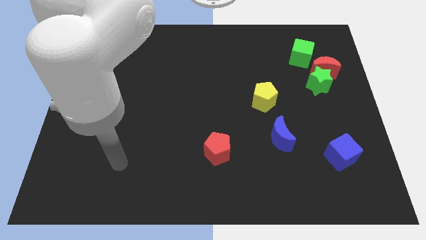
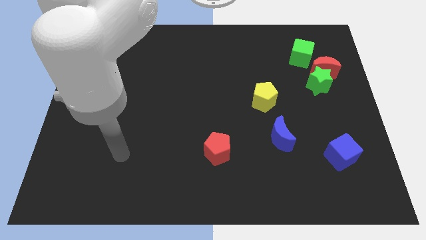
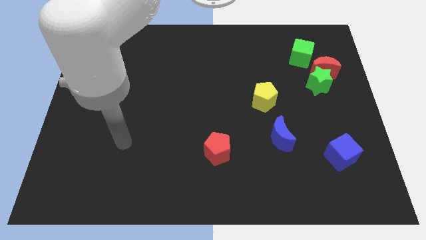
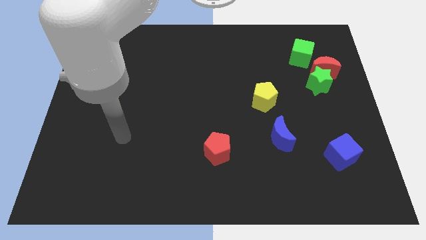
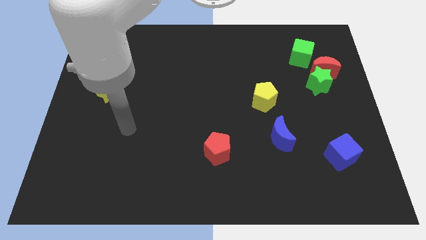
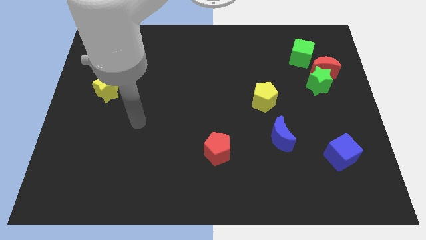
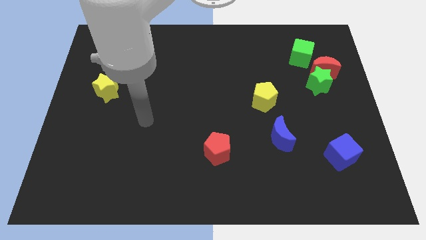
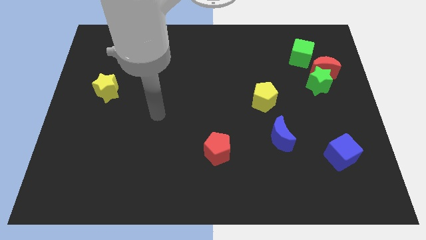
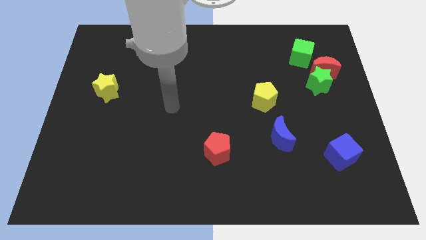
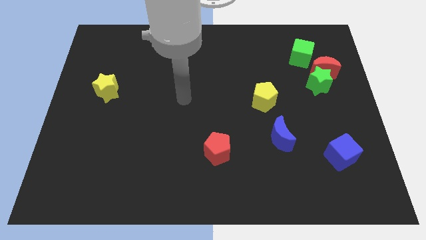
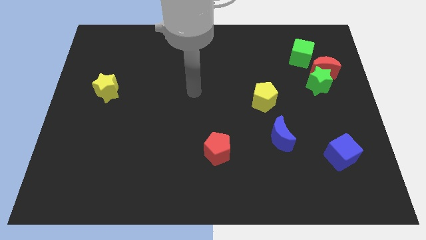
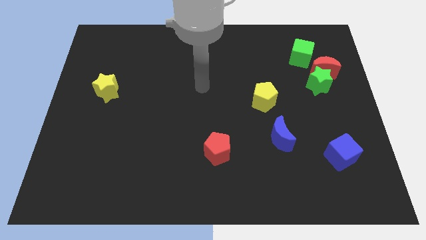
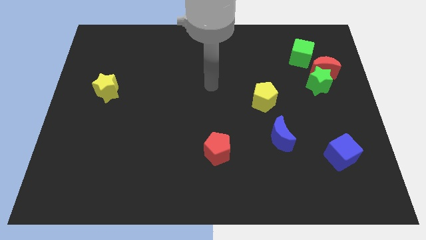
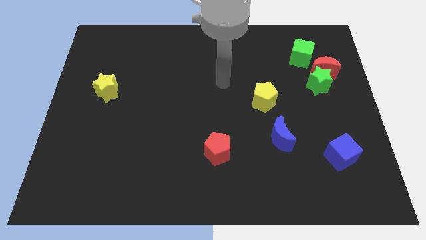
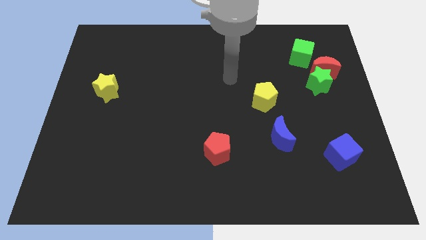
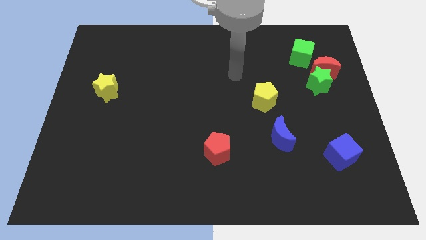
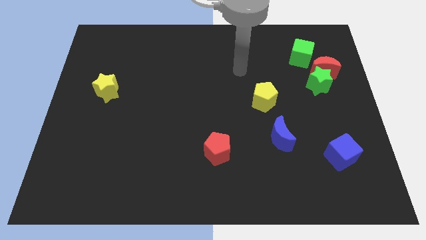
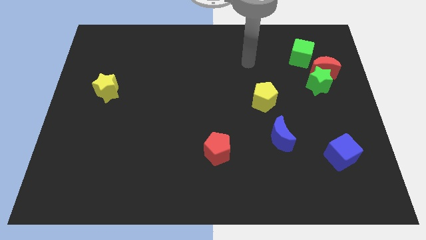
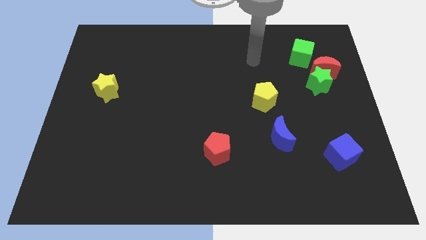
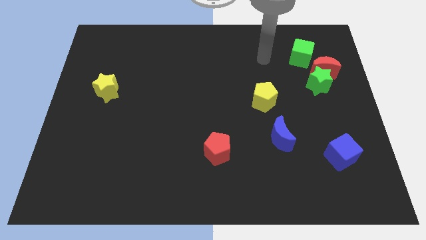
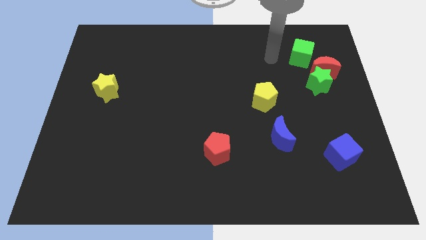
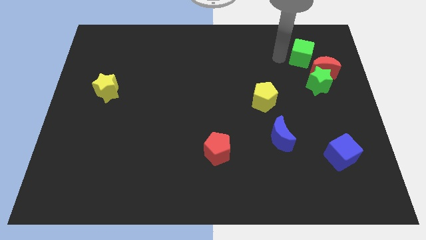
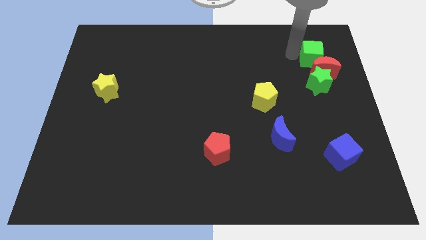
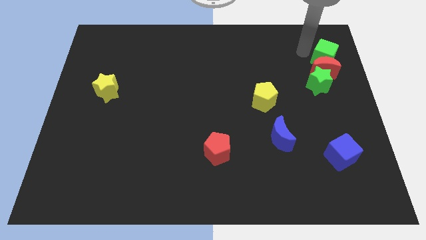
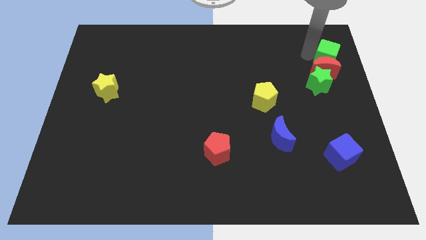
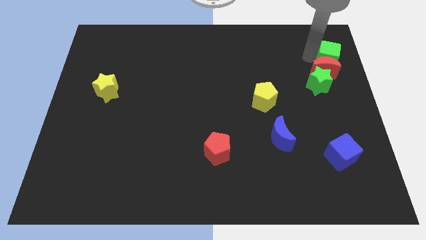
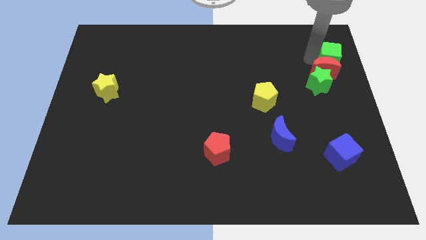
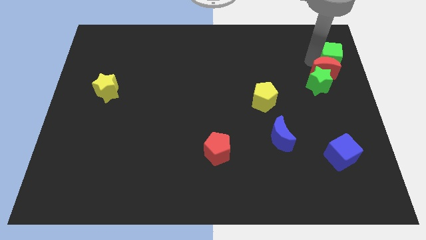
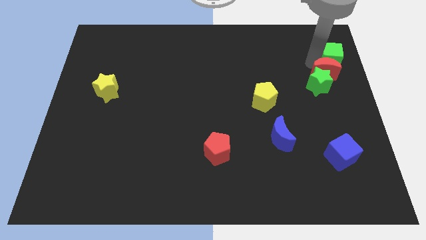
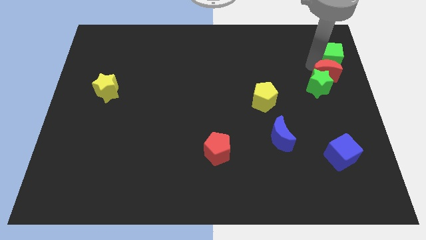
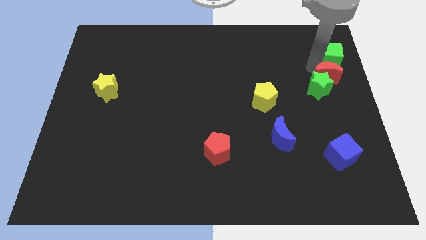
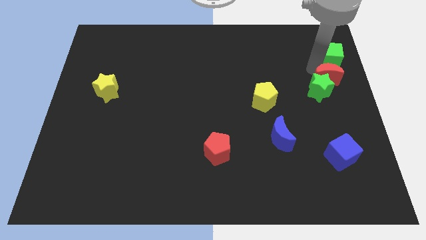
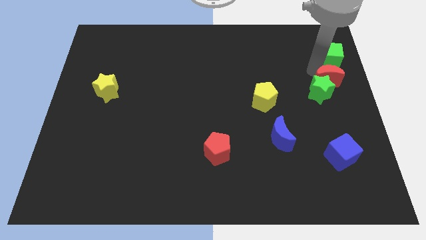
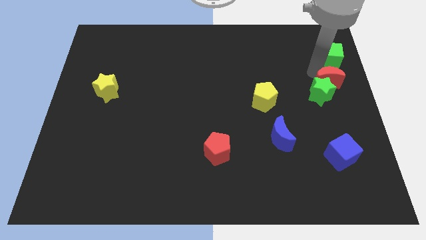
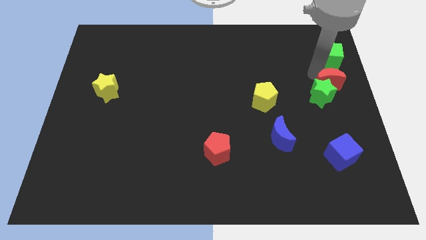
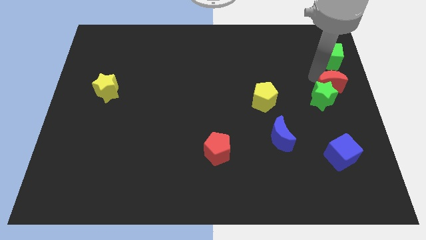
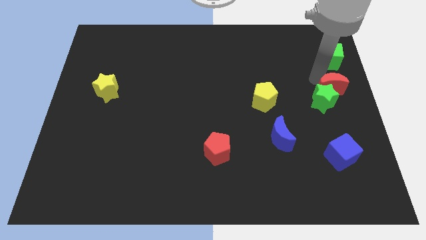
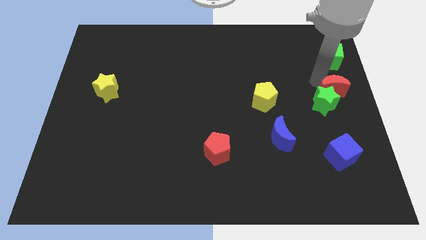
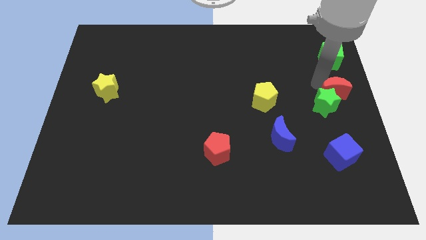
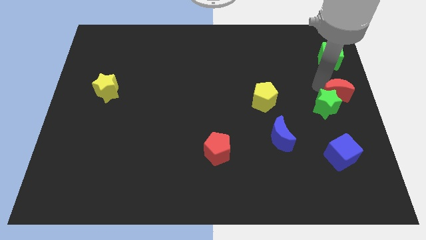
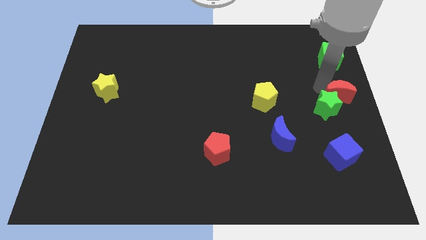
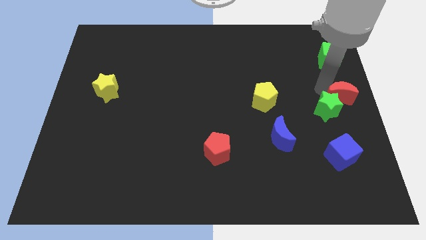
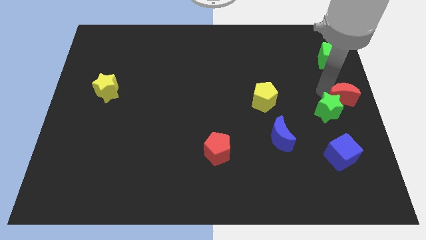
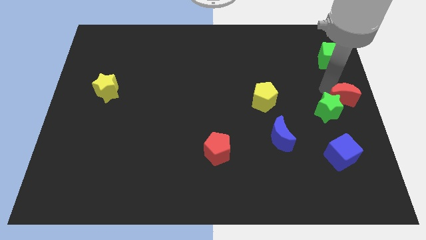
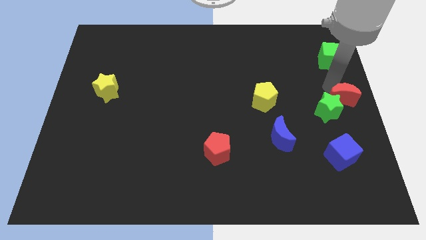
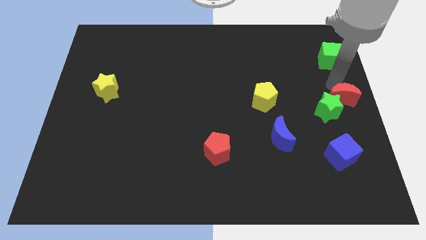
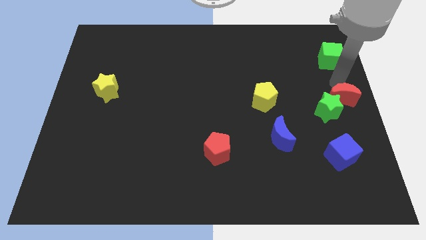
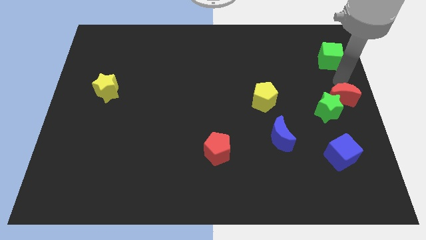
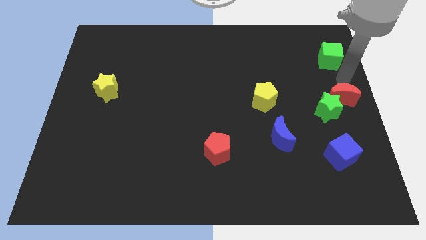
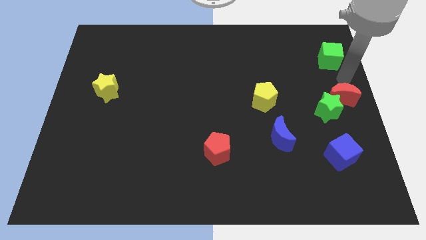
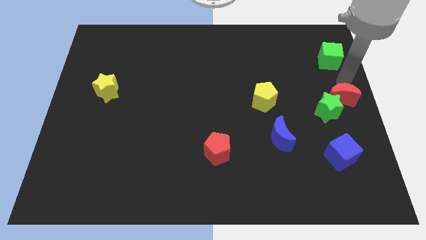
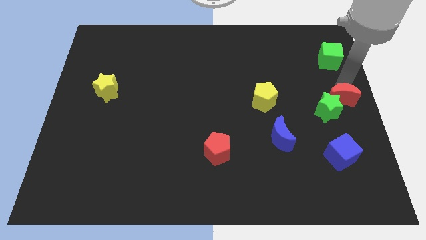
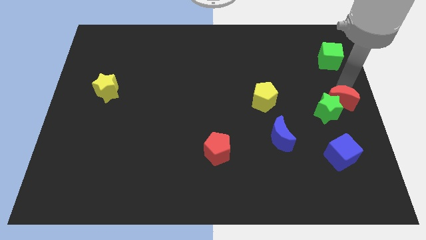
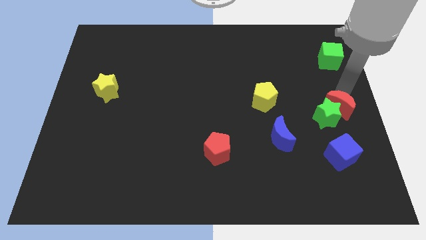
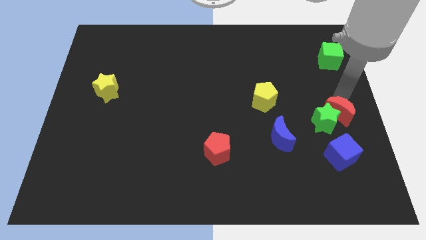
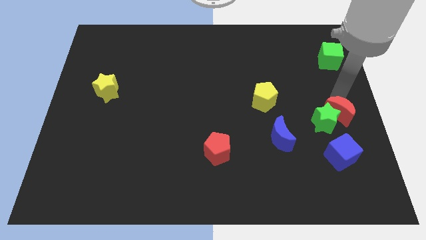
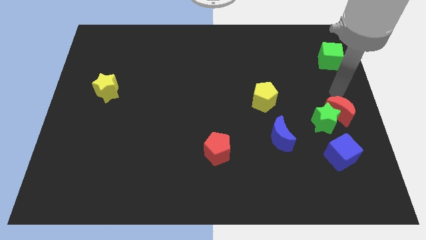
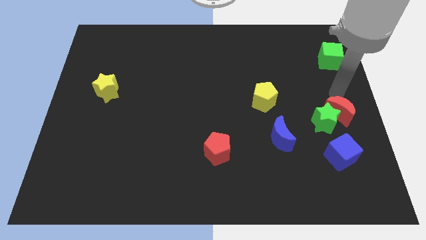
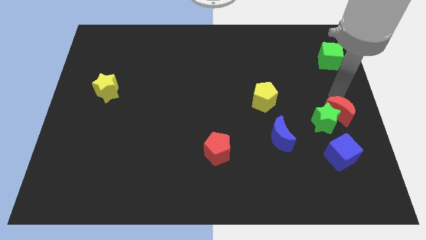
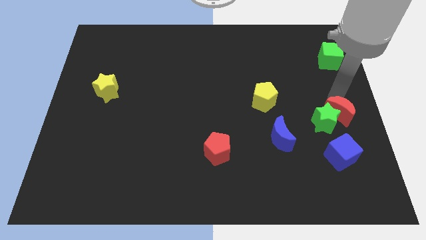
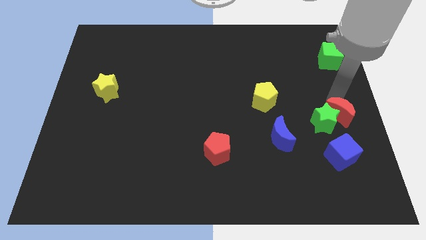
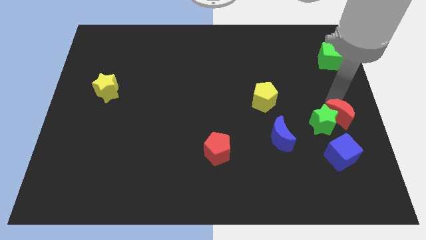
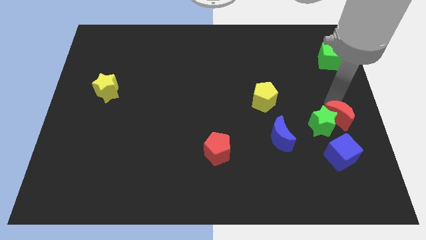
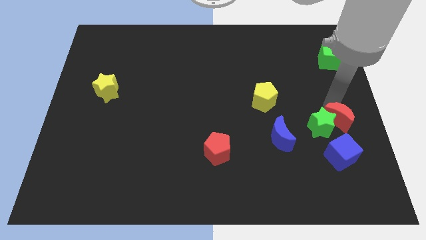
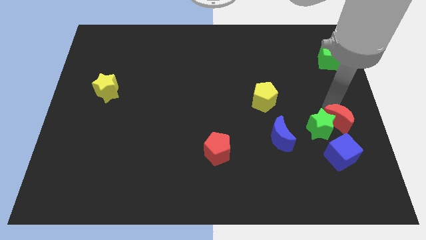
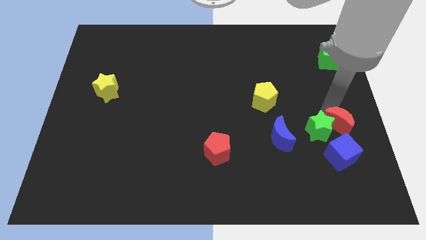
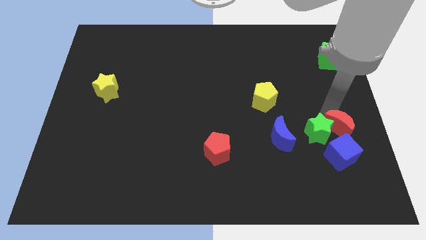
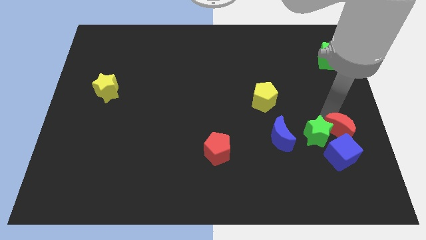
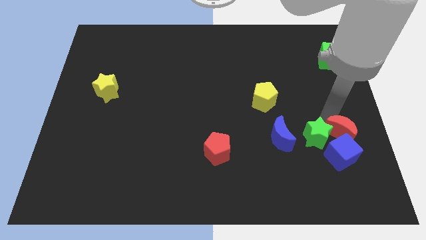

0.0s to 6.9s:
put the red moon close to the blue cube

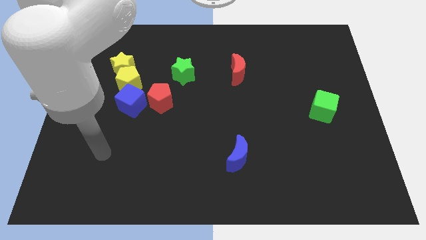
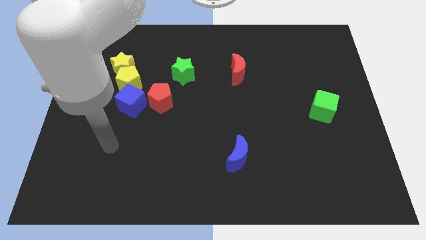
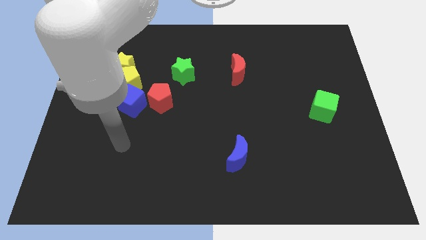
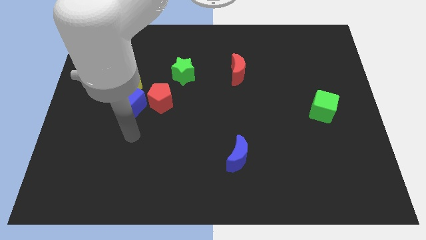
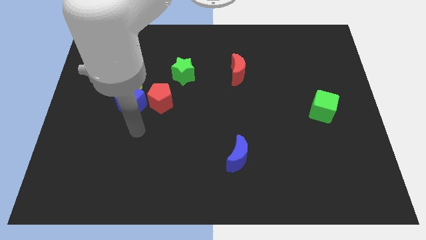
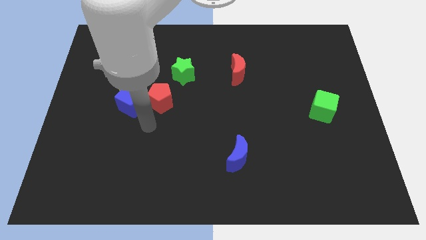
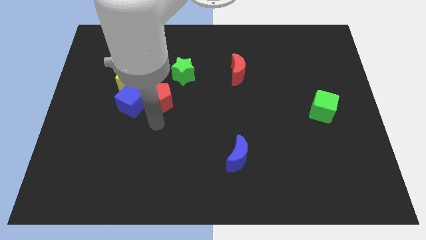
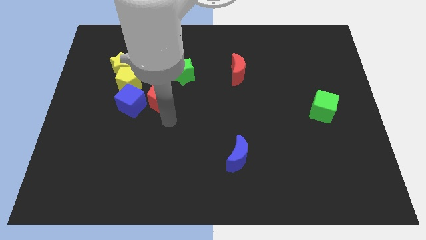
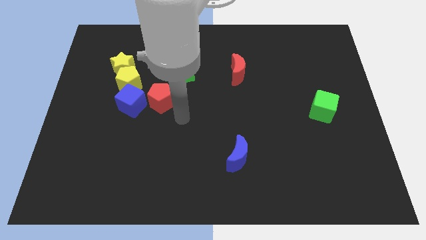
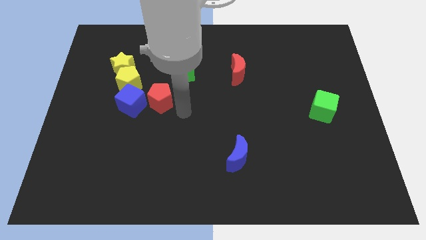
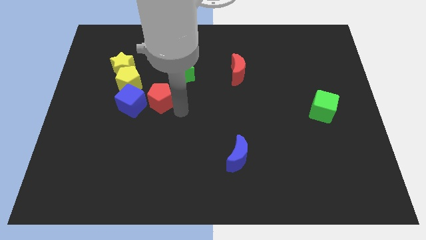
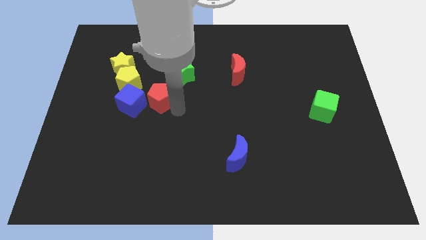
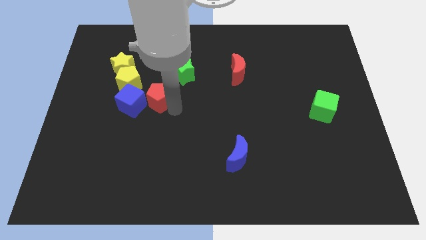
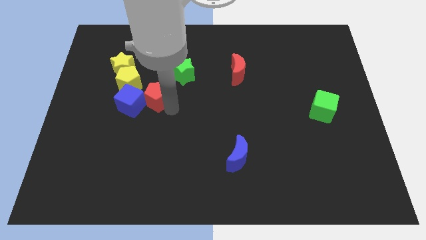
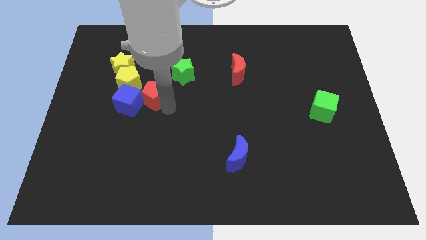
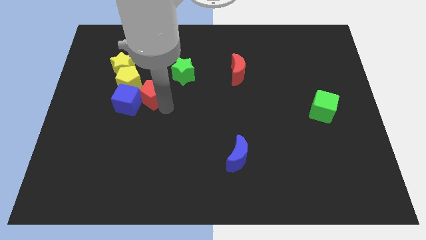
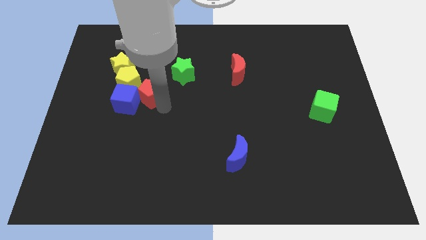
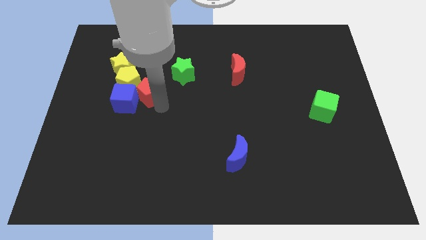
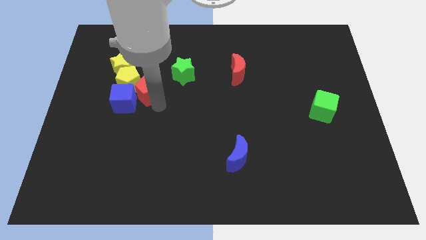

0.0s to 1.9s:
push the red pentagon to the yellow pentagon
